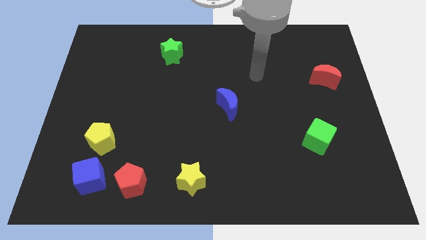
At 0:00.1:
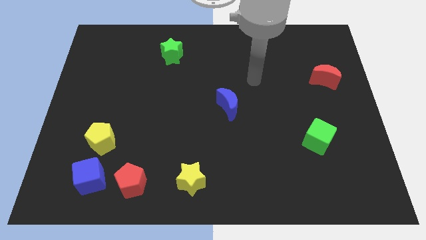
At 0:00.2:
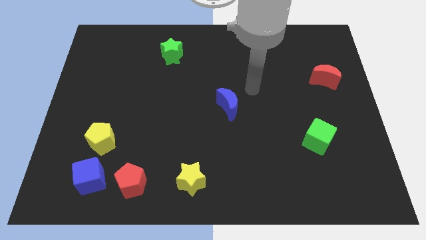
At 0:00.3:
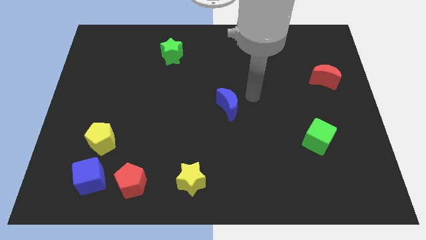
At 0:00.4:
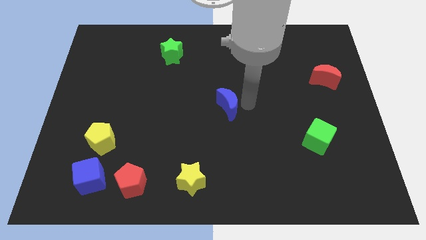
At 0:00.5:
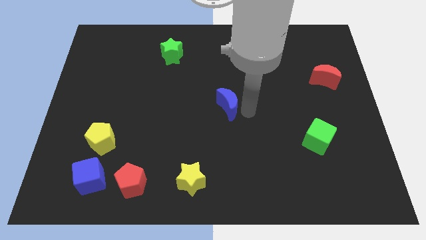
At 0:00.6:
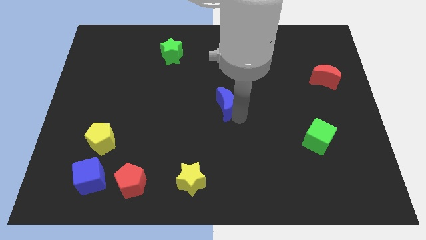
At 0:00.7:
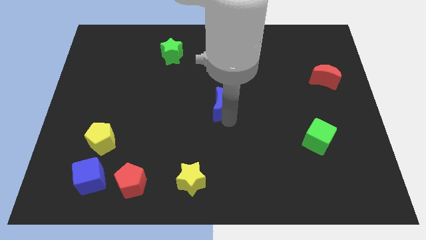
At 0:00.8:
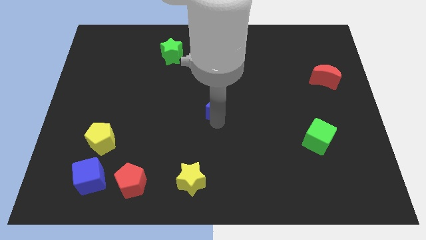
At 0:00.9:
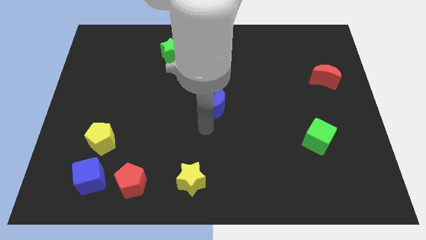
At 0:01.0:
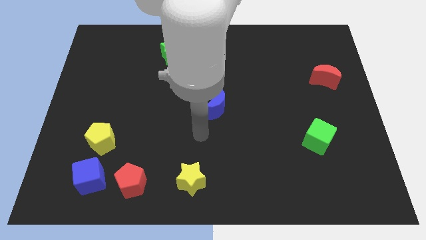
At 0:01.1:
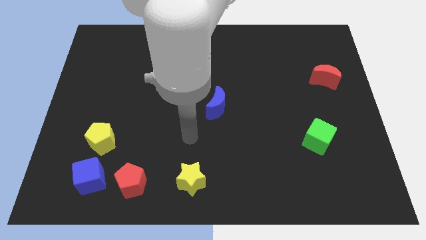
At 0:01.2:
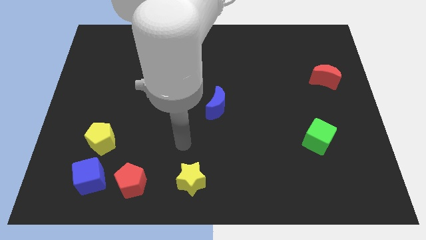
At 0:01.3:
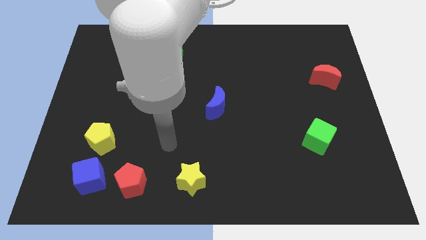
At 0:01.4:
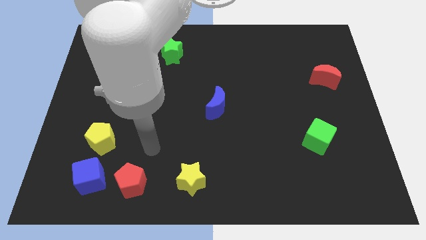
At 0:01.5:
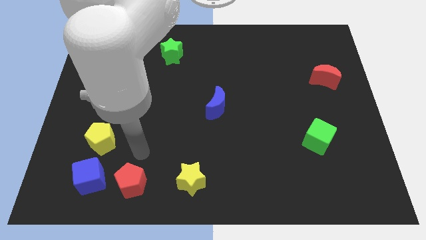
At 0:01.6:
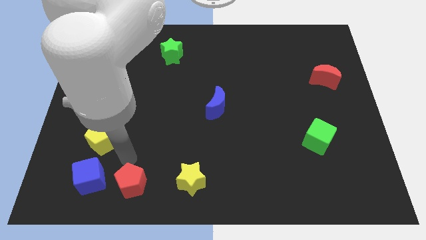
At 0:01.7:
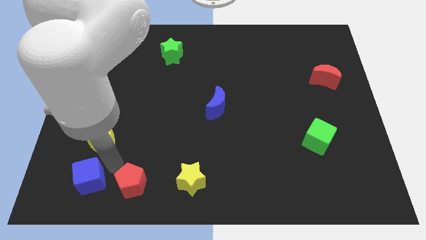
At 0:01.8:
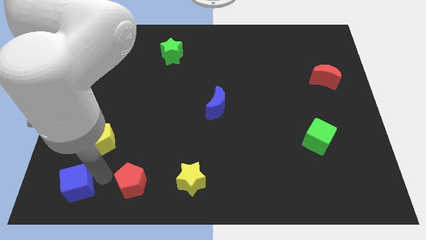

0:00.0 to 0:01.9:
separate the red pentagon from the blue cube

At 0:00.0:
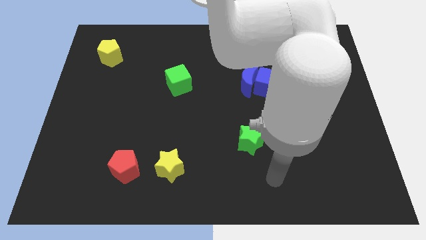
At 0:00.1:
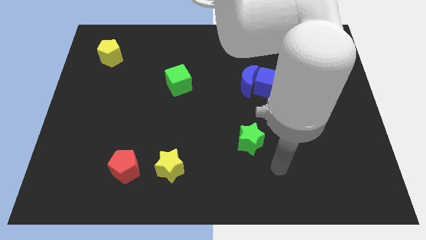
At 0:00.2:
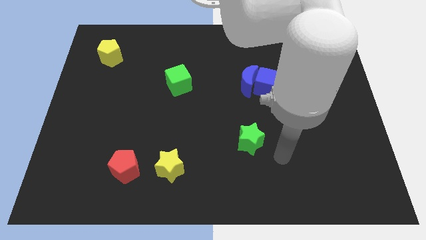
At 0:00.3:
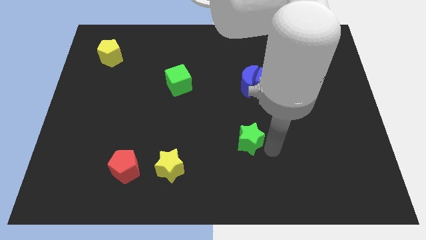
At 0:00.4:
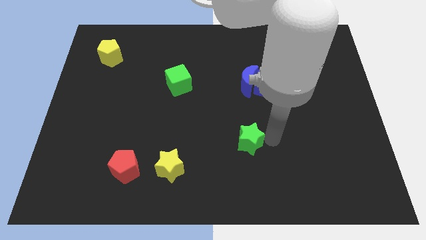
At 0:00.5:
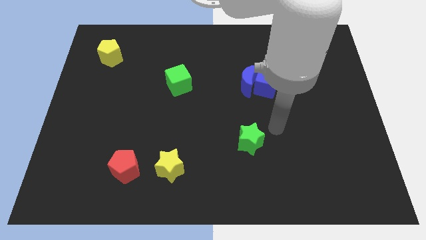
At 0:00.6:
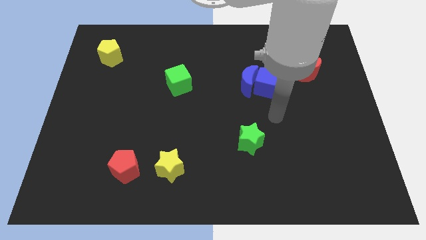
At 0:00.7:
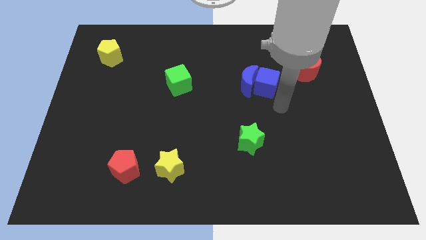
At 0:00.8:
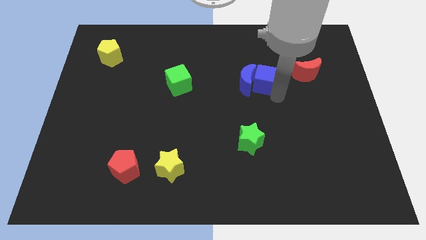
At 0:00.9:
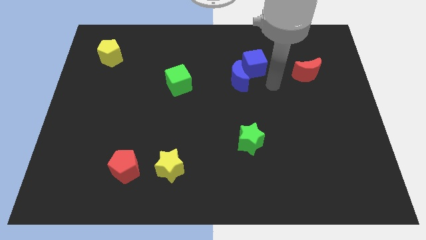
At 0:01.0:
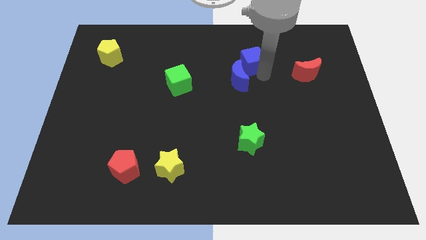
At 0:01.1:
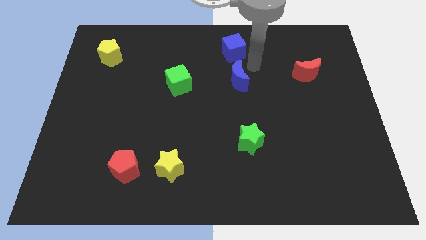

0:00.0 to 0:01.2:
separate the blue moon from the blue cube

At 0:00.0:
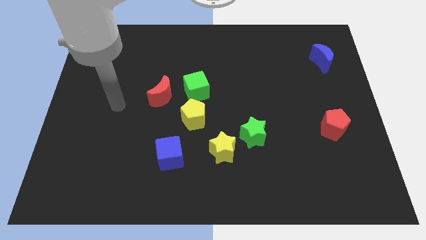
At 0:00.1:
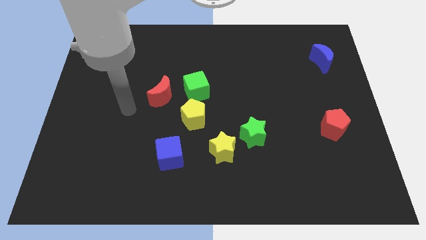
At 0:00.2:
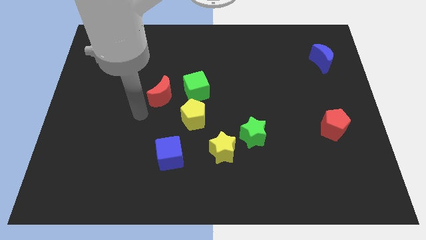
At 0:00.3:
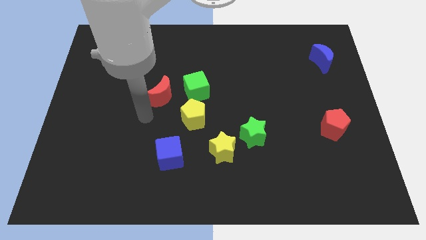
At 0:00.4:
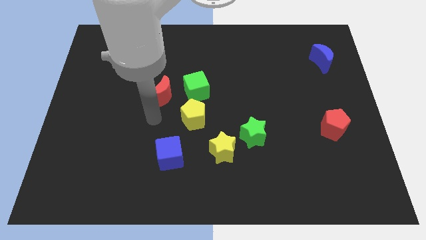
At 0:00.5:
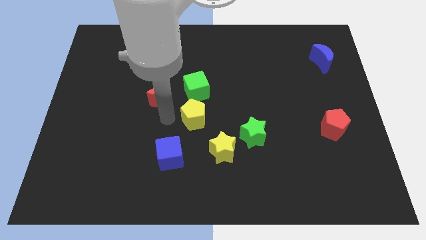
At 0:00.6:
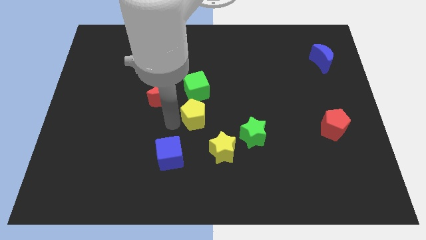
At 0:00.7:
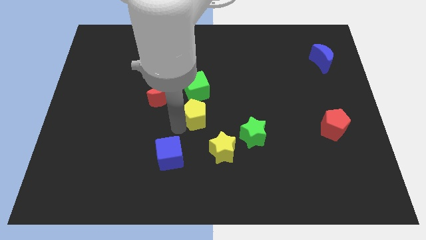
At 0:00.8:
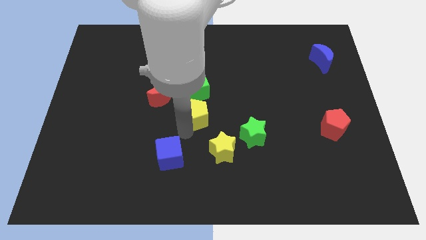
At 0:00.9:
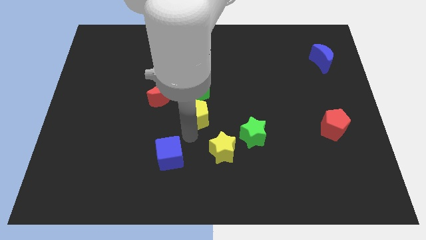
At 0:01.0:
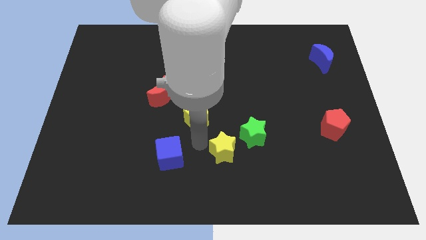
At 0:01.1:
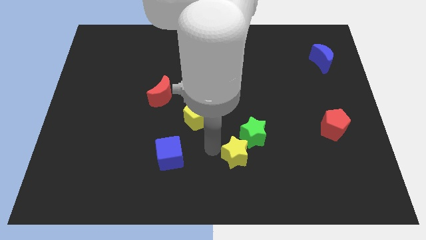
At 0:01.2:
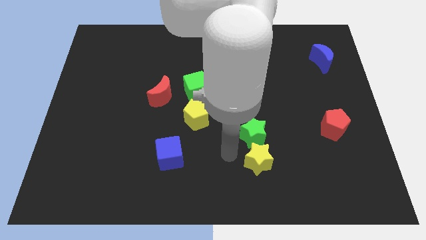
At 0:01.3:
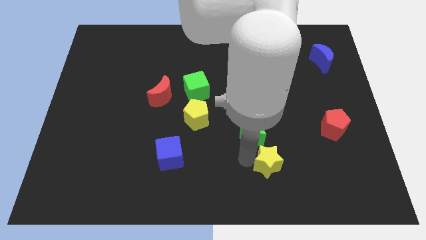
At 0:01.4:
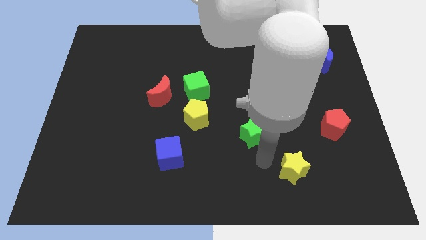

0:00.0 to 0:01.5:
move the green star away from the yellow star

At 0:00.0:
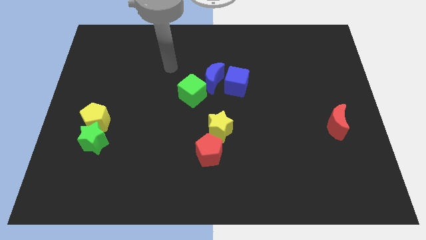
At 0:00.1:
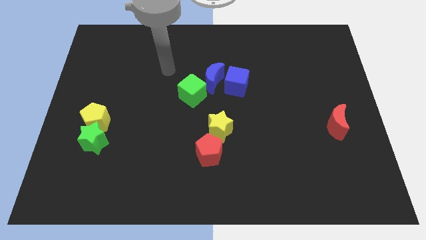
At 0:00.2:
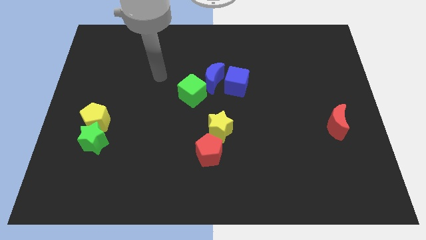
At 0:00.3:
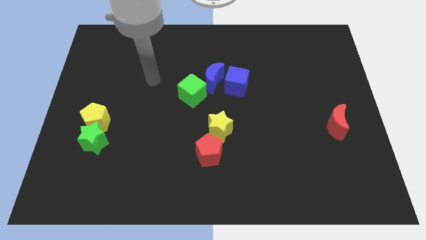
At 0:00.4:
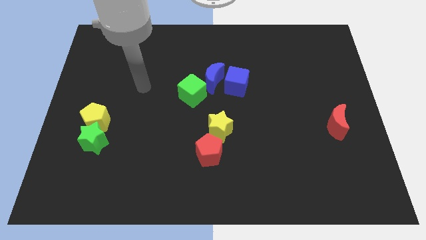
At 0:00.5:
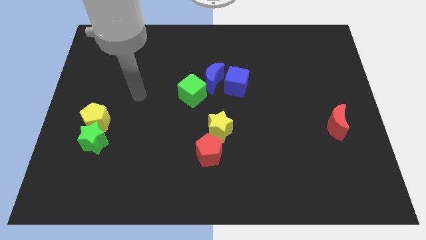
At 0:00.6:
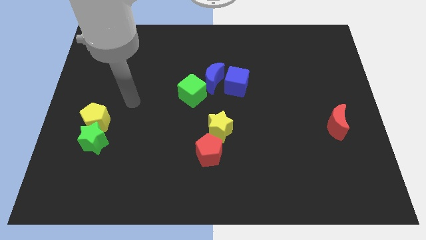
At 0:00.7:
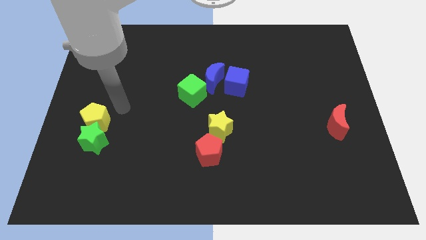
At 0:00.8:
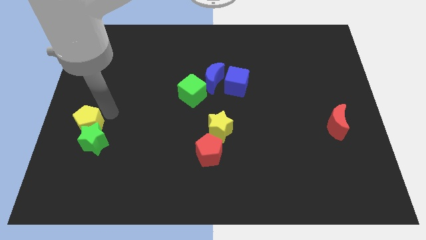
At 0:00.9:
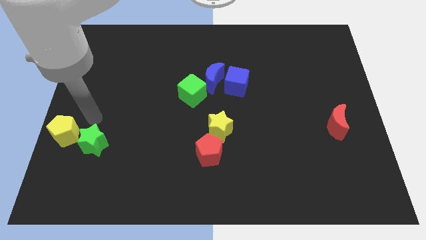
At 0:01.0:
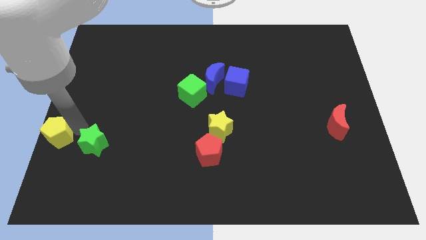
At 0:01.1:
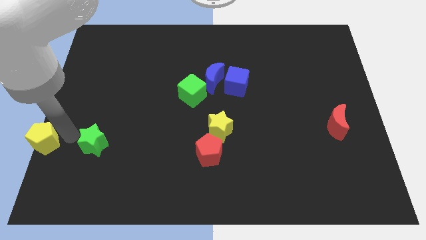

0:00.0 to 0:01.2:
pull the green star apart from the yellow pentagon

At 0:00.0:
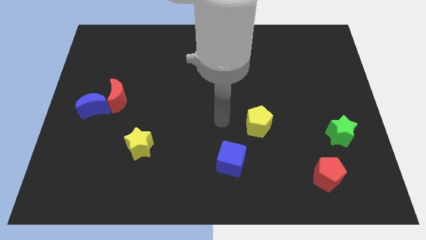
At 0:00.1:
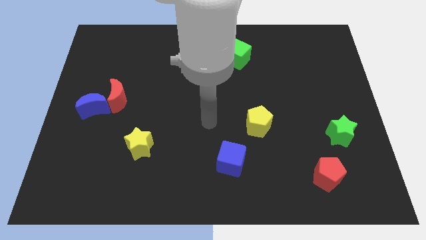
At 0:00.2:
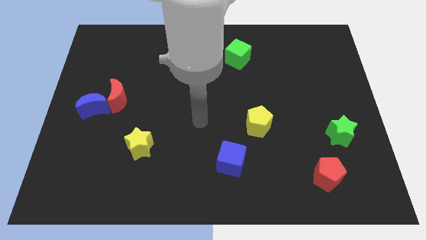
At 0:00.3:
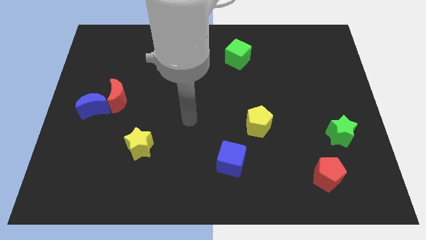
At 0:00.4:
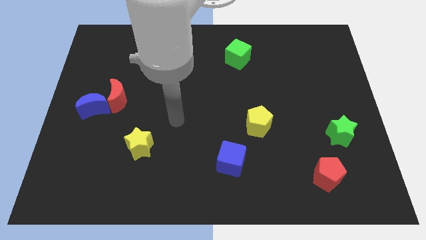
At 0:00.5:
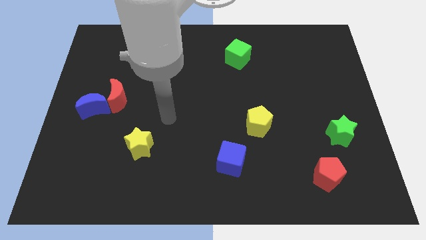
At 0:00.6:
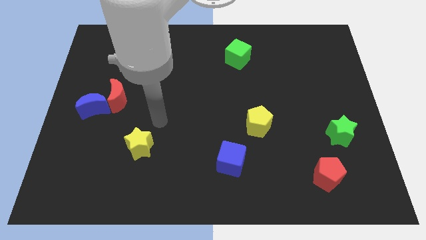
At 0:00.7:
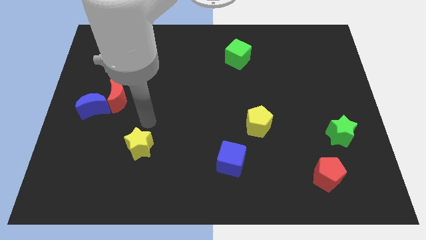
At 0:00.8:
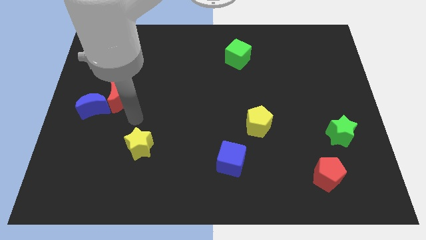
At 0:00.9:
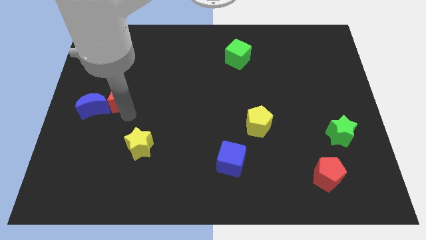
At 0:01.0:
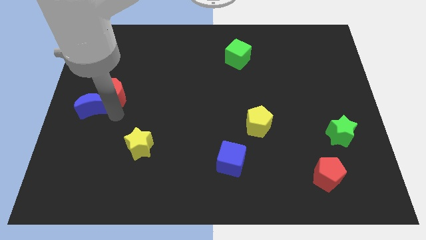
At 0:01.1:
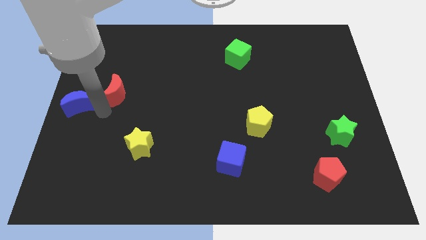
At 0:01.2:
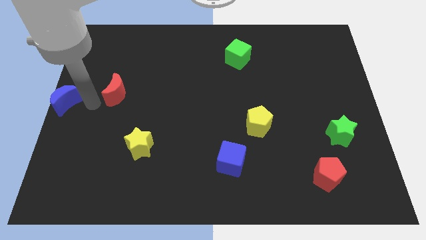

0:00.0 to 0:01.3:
pull the red moon apart from the blue moon

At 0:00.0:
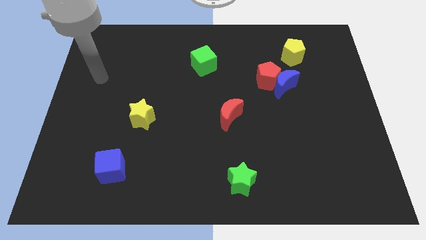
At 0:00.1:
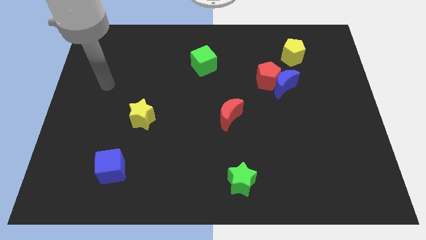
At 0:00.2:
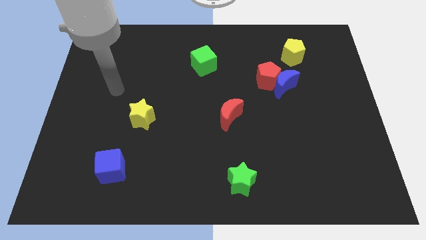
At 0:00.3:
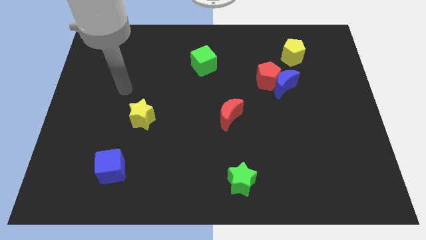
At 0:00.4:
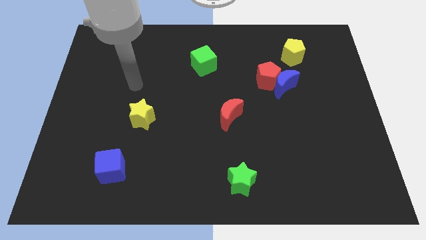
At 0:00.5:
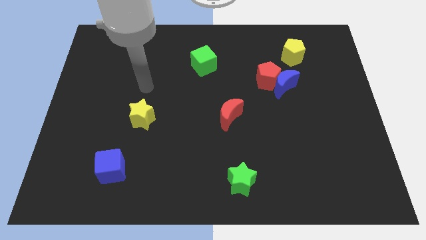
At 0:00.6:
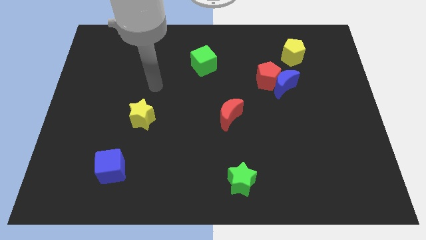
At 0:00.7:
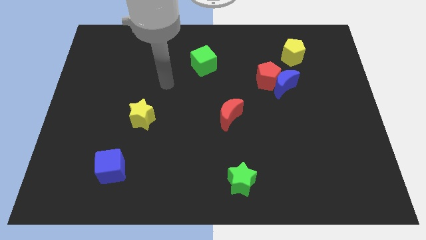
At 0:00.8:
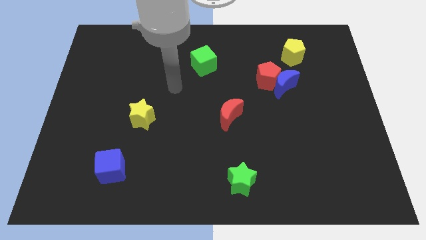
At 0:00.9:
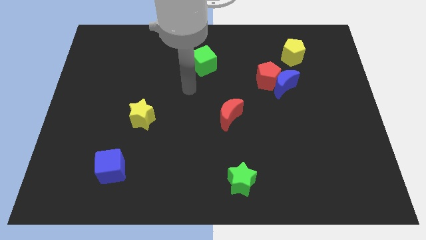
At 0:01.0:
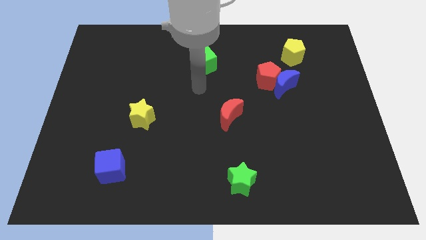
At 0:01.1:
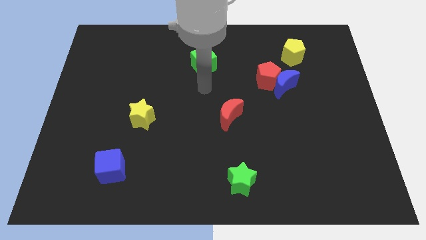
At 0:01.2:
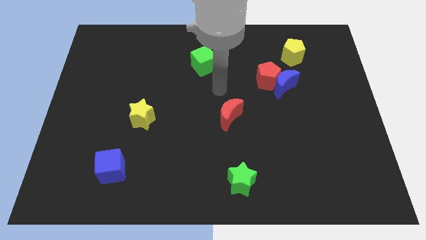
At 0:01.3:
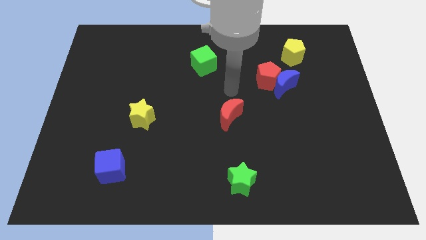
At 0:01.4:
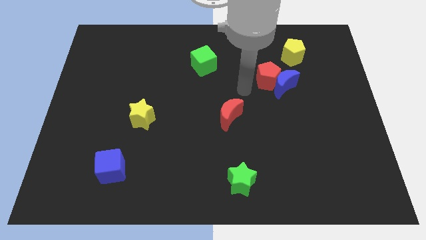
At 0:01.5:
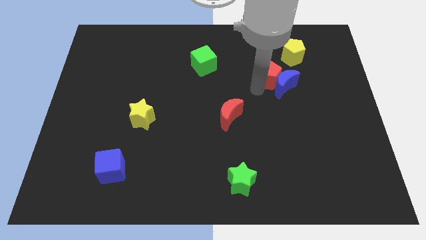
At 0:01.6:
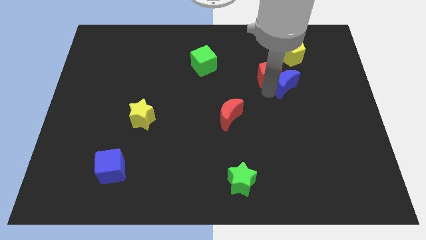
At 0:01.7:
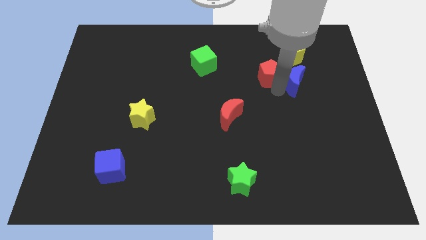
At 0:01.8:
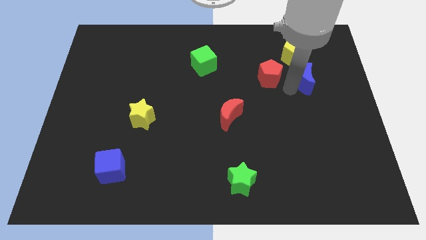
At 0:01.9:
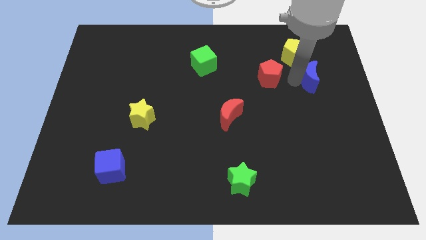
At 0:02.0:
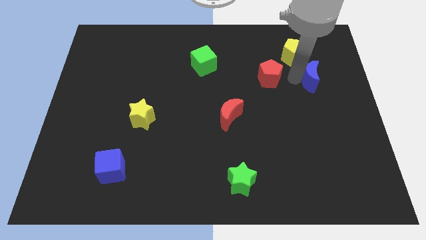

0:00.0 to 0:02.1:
separate the red pentagon from the blue moon

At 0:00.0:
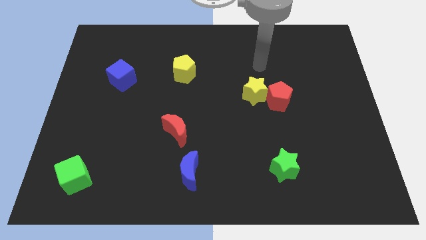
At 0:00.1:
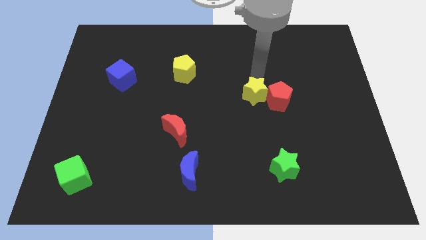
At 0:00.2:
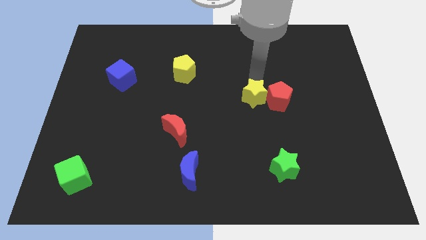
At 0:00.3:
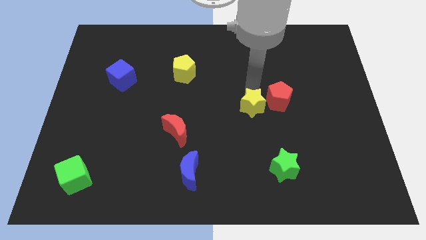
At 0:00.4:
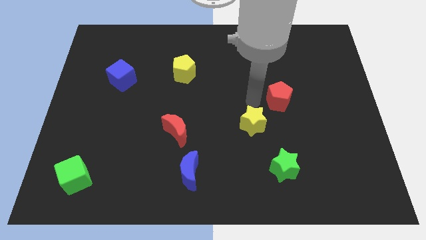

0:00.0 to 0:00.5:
separate the red pentagon from the yellow star
